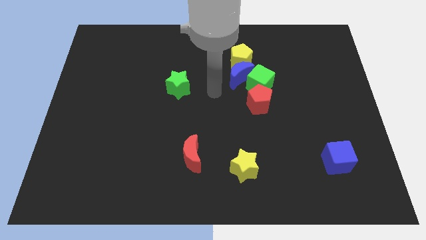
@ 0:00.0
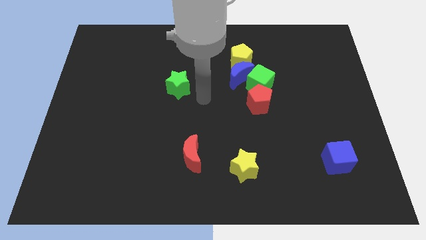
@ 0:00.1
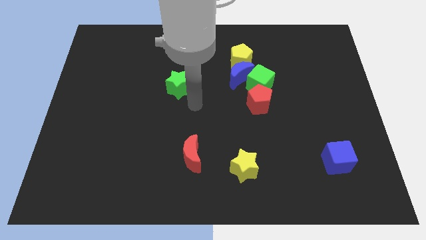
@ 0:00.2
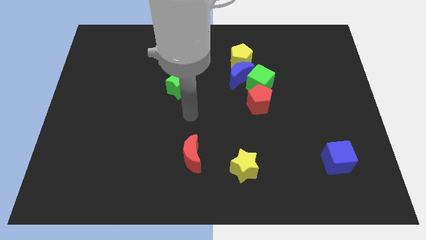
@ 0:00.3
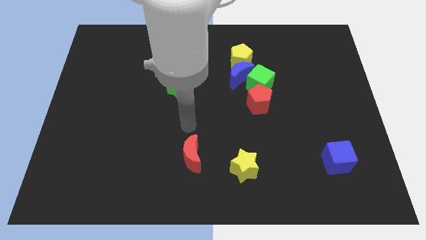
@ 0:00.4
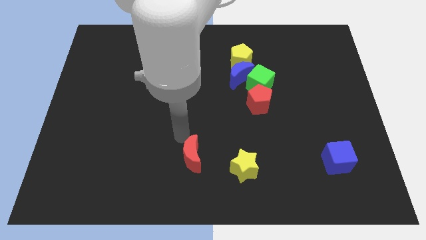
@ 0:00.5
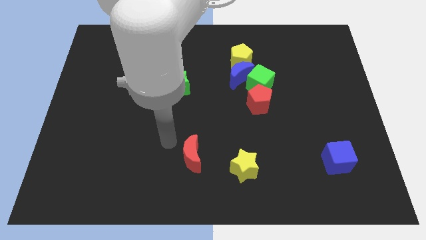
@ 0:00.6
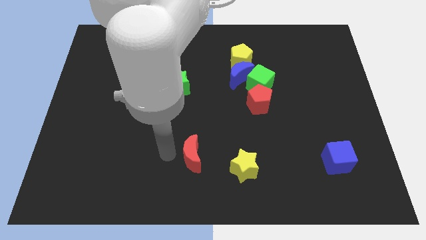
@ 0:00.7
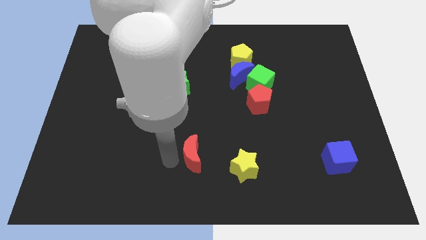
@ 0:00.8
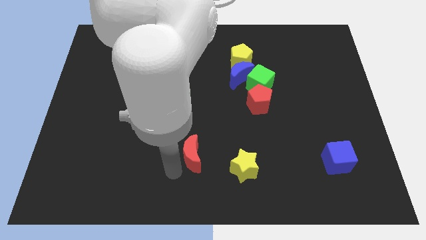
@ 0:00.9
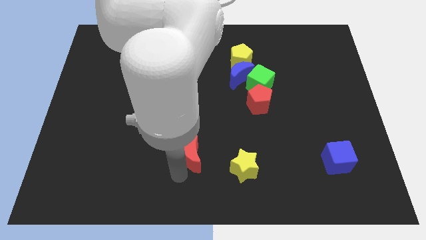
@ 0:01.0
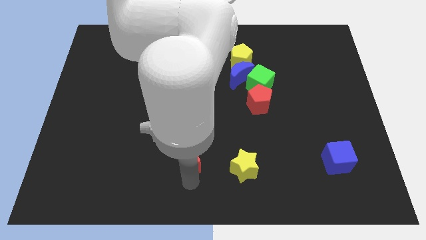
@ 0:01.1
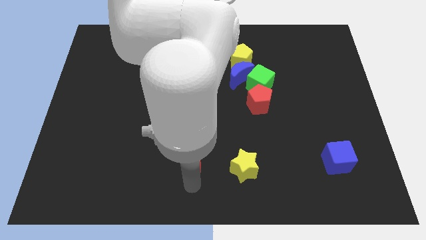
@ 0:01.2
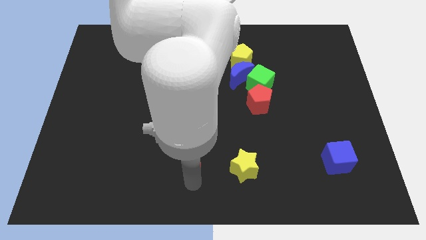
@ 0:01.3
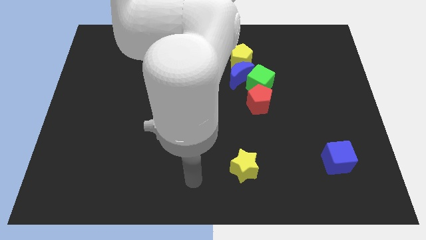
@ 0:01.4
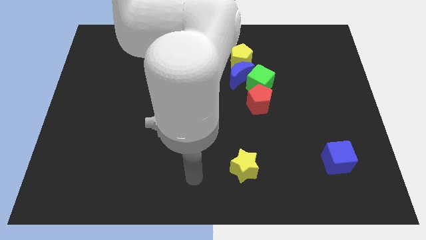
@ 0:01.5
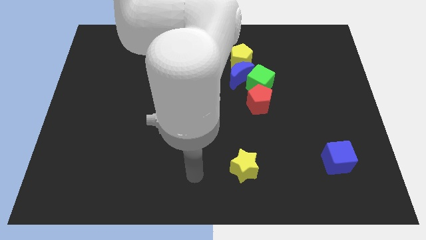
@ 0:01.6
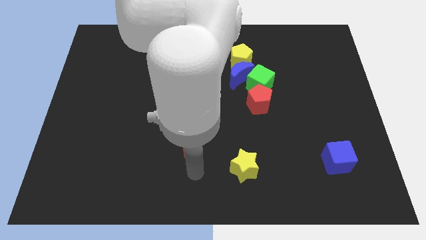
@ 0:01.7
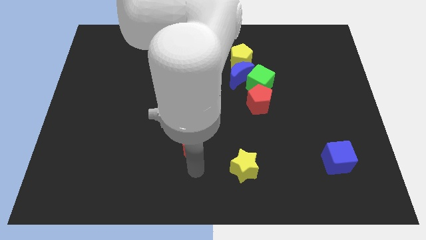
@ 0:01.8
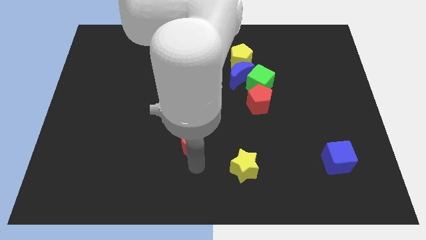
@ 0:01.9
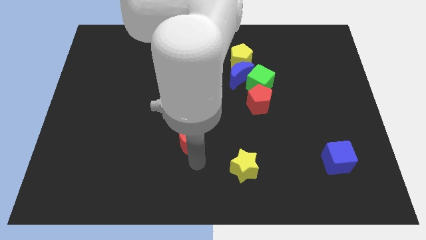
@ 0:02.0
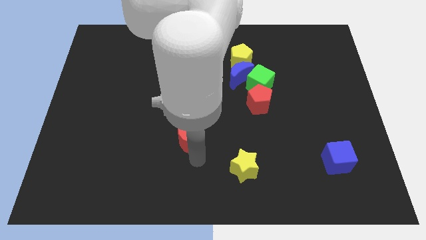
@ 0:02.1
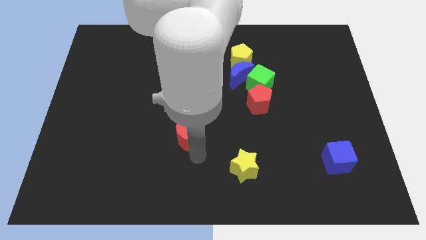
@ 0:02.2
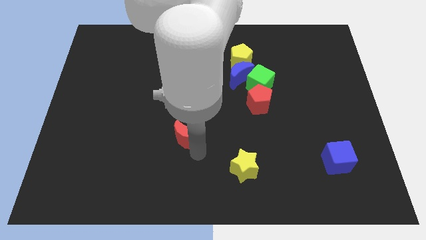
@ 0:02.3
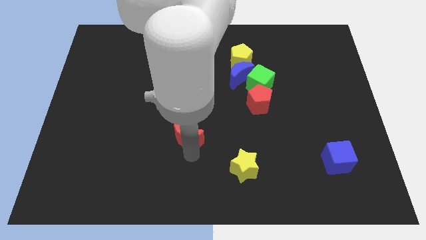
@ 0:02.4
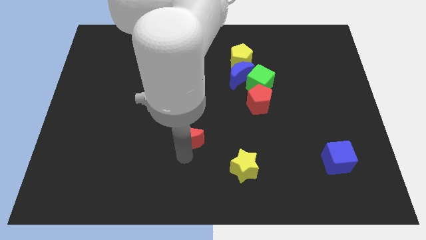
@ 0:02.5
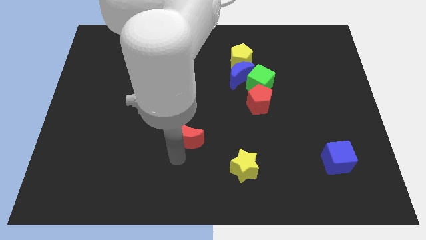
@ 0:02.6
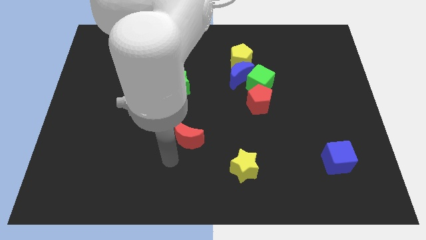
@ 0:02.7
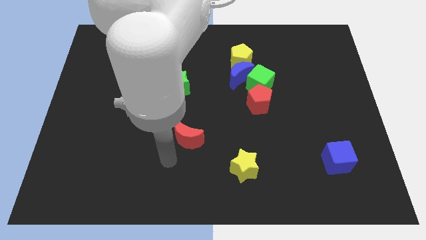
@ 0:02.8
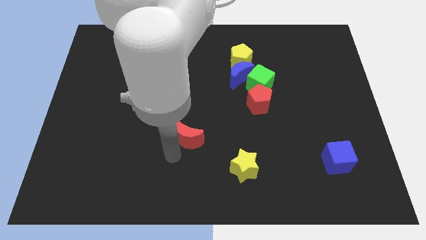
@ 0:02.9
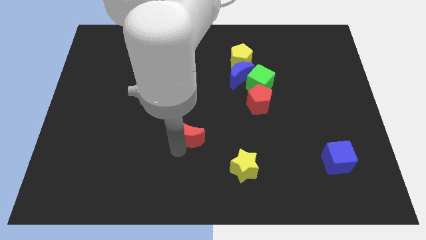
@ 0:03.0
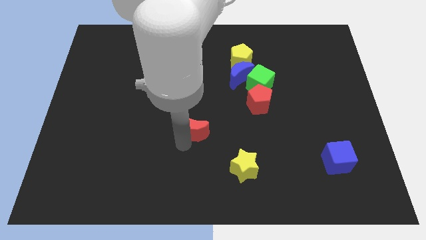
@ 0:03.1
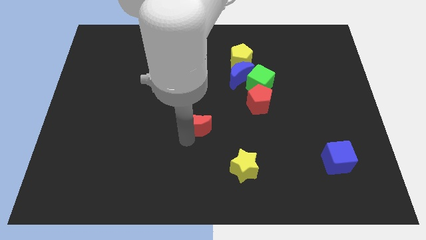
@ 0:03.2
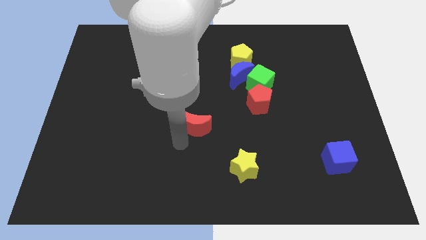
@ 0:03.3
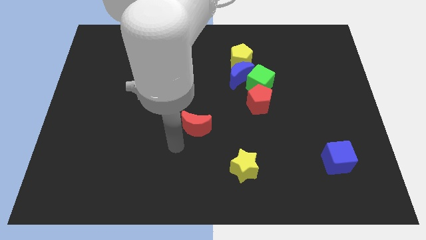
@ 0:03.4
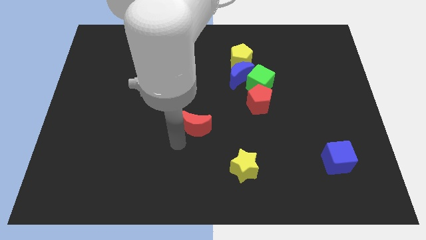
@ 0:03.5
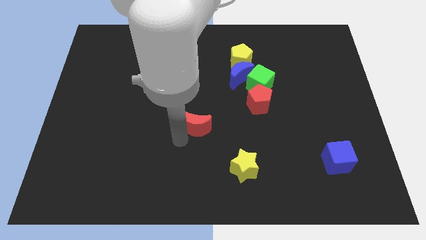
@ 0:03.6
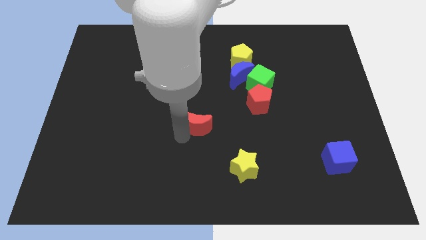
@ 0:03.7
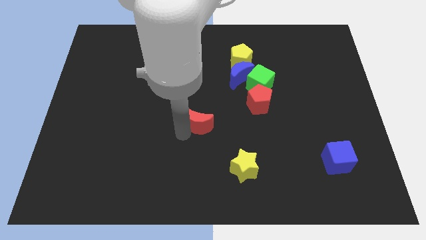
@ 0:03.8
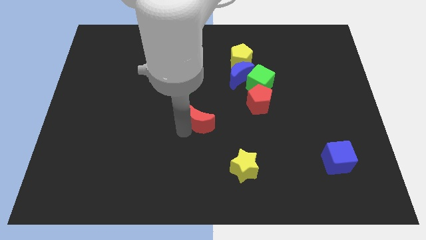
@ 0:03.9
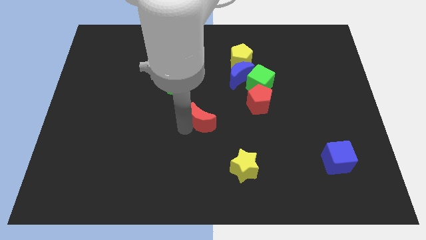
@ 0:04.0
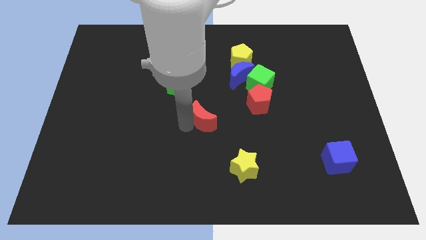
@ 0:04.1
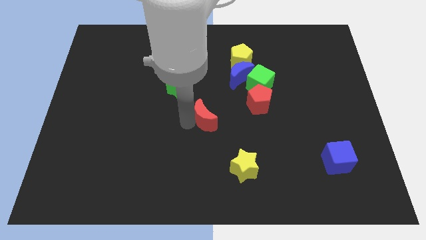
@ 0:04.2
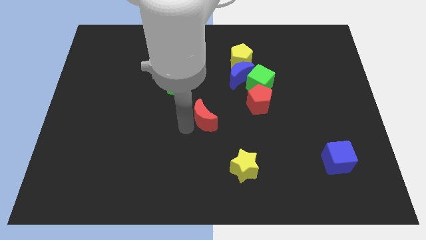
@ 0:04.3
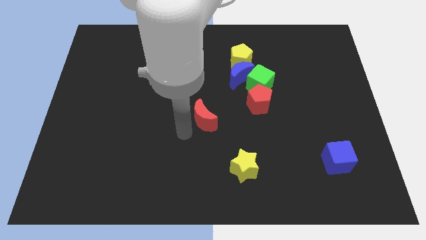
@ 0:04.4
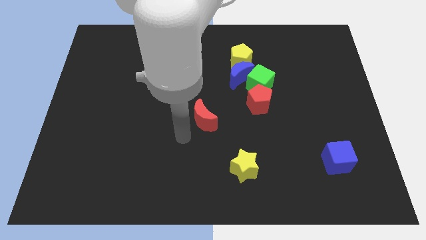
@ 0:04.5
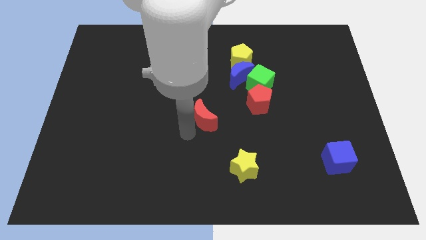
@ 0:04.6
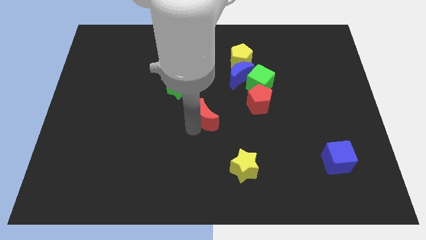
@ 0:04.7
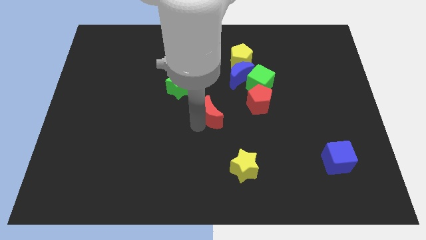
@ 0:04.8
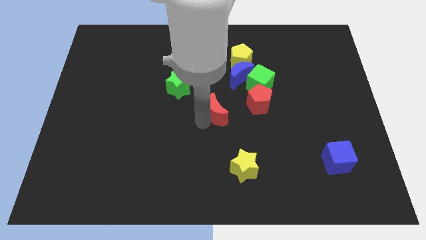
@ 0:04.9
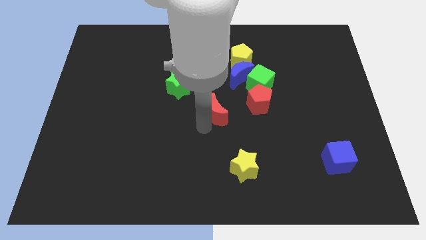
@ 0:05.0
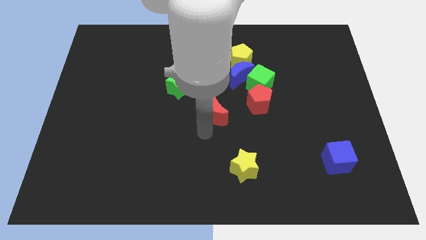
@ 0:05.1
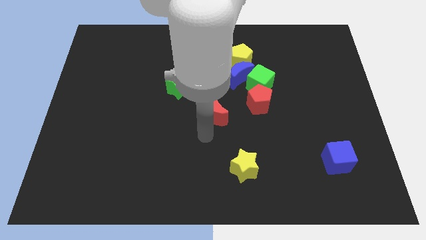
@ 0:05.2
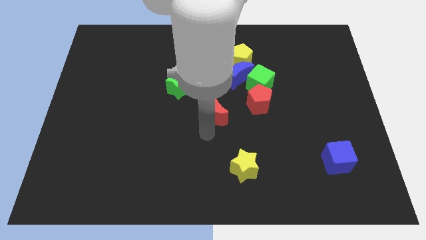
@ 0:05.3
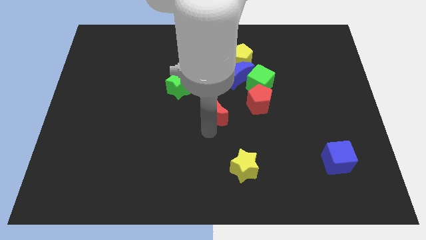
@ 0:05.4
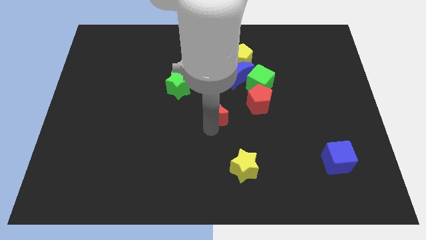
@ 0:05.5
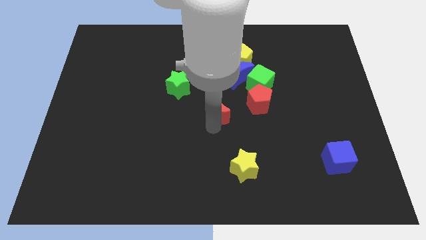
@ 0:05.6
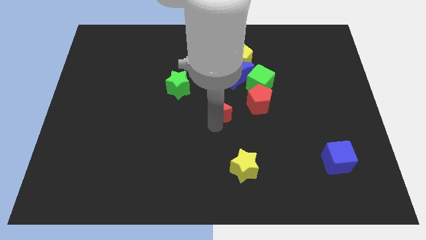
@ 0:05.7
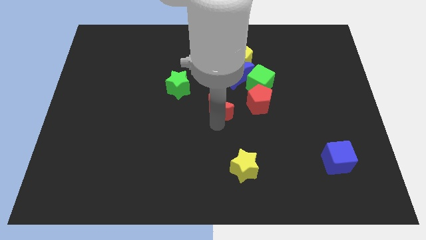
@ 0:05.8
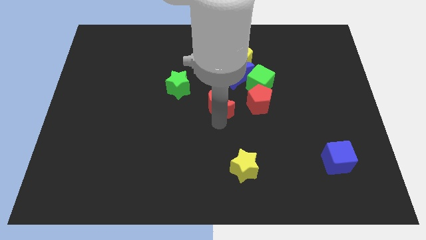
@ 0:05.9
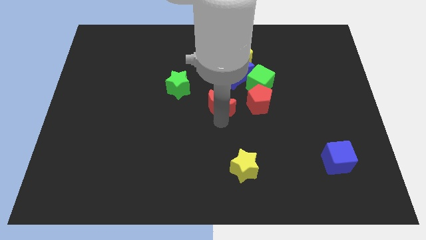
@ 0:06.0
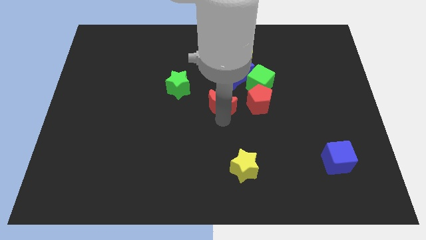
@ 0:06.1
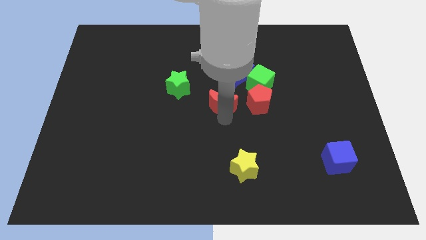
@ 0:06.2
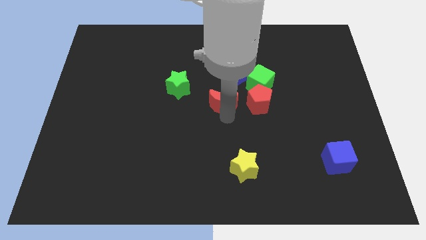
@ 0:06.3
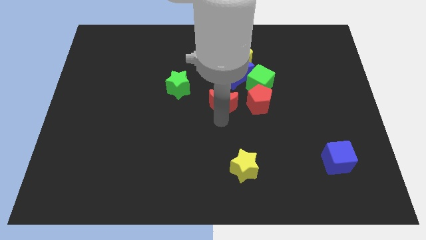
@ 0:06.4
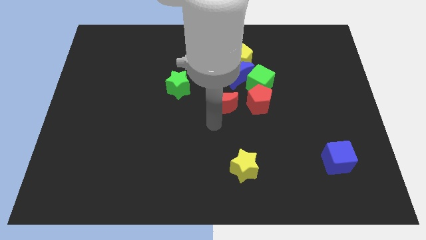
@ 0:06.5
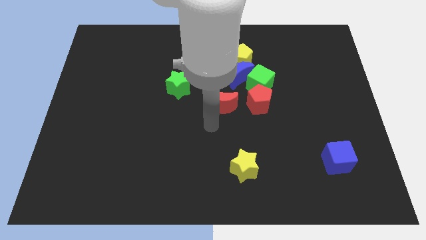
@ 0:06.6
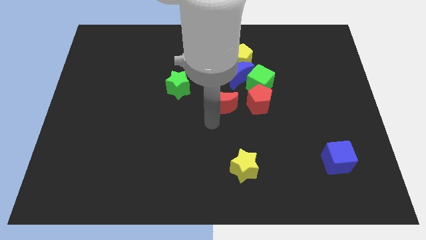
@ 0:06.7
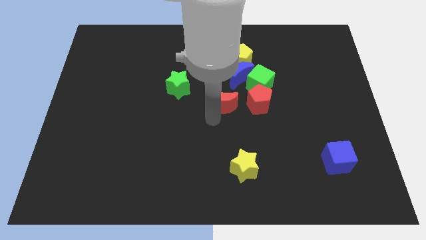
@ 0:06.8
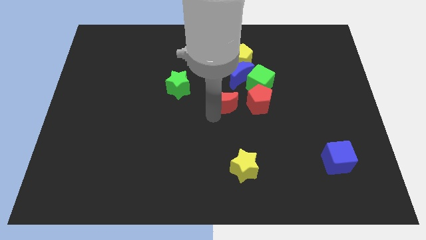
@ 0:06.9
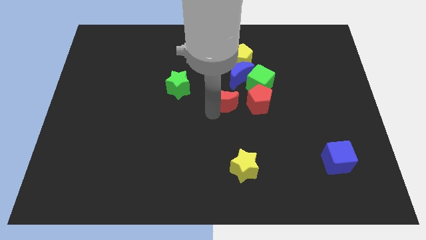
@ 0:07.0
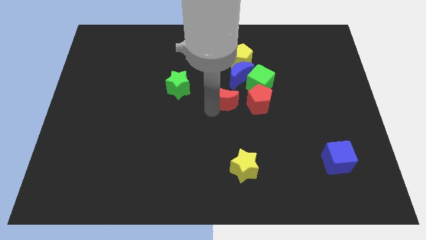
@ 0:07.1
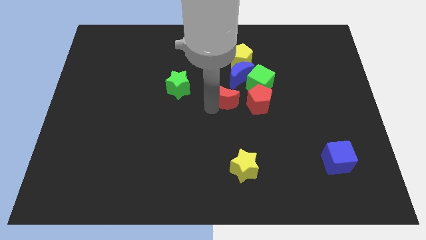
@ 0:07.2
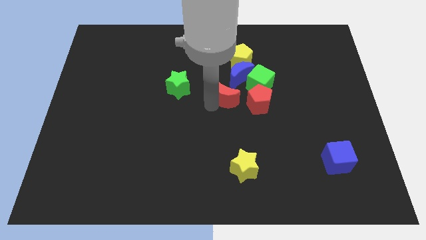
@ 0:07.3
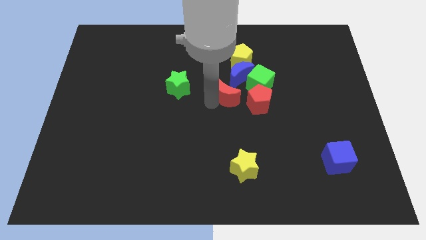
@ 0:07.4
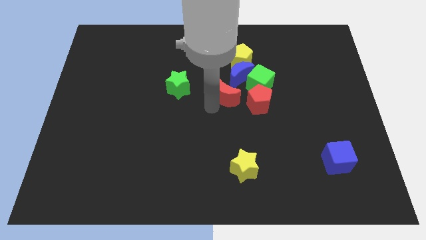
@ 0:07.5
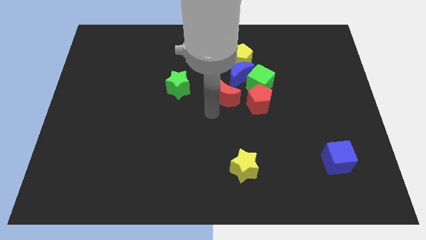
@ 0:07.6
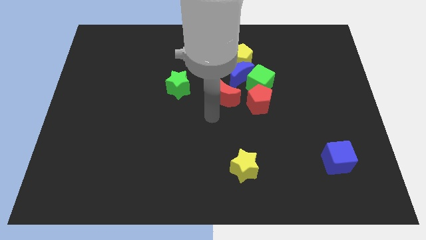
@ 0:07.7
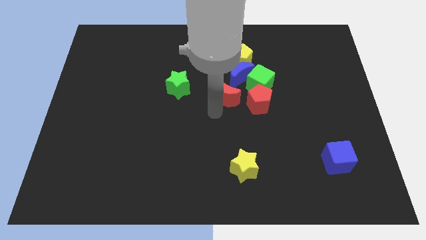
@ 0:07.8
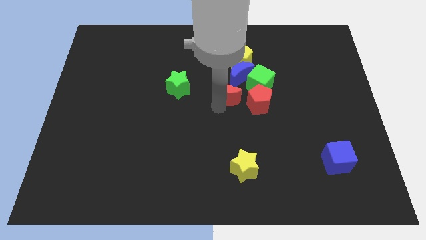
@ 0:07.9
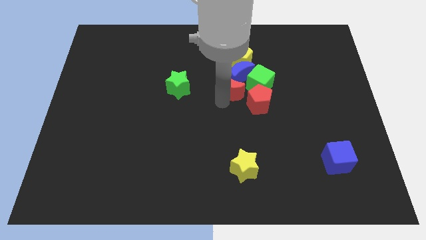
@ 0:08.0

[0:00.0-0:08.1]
push the red moon close to the blue moon
